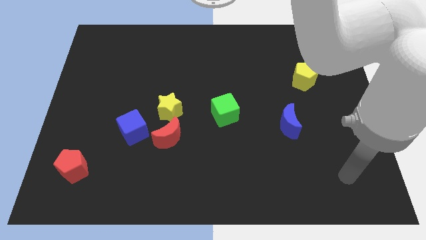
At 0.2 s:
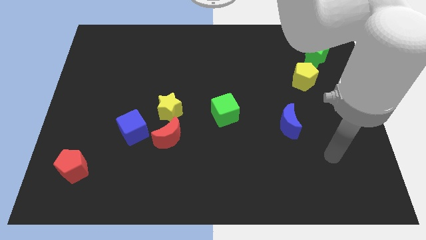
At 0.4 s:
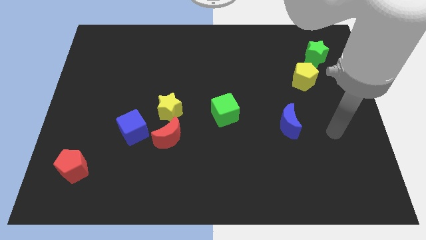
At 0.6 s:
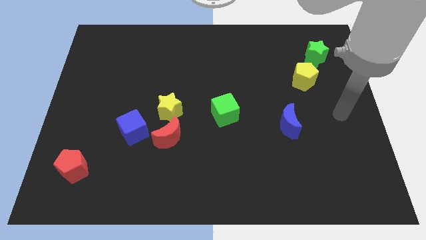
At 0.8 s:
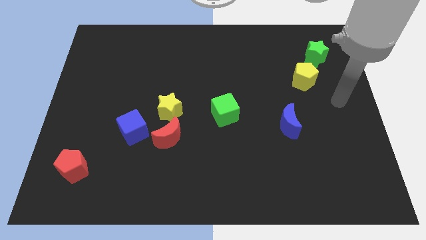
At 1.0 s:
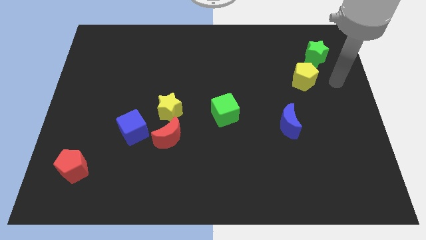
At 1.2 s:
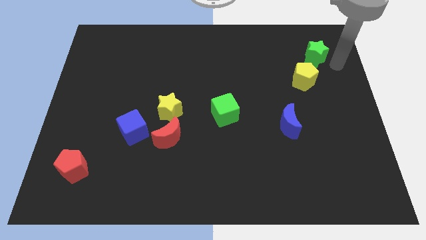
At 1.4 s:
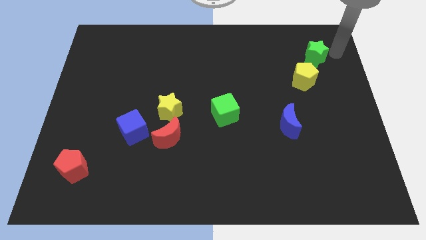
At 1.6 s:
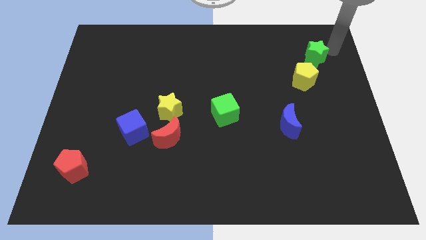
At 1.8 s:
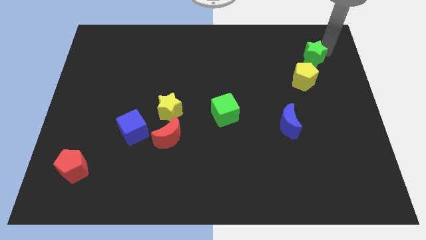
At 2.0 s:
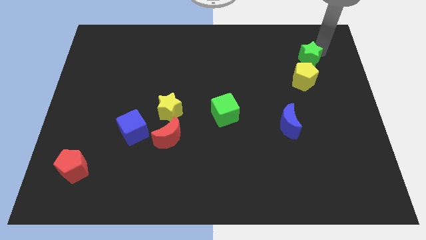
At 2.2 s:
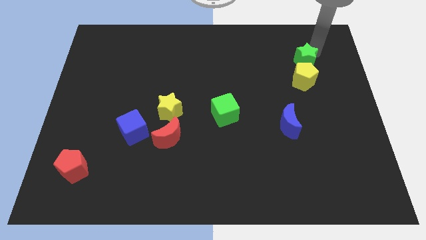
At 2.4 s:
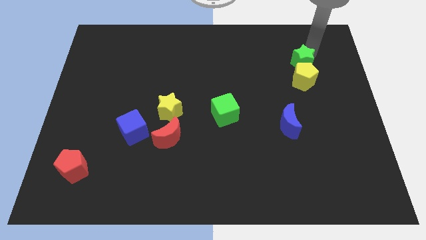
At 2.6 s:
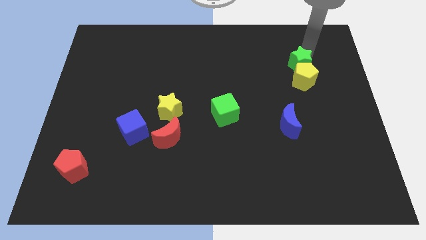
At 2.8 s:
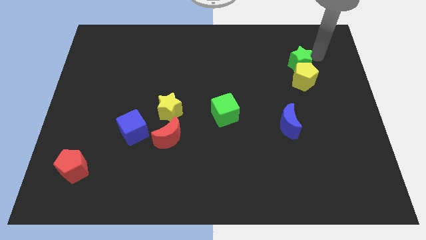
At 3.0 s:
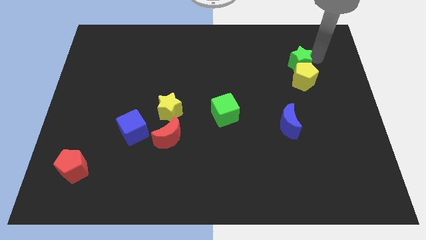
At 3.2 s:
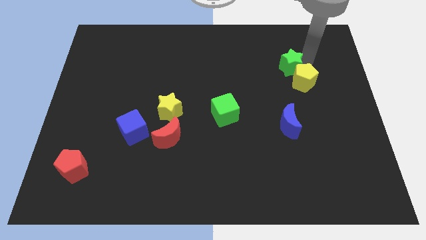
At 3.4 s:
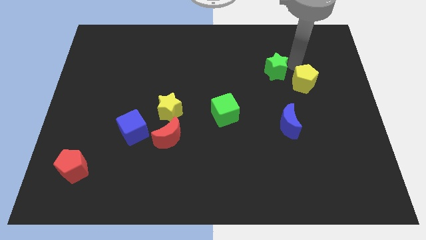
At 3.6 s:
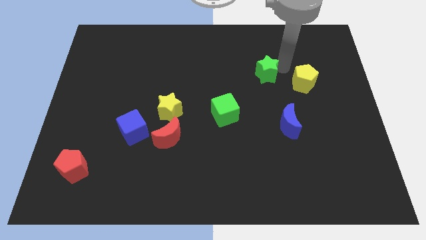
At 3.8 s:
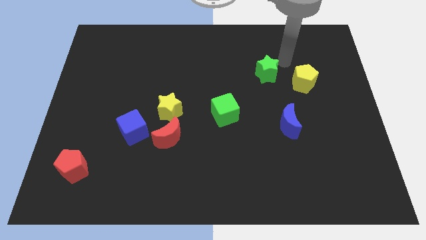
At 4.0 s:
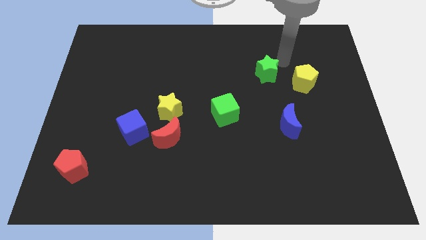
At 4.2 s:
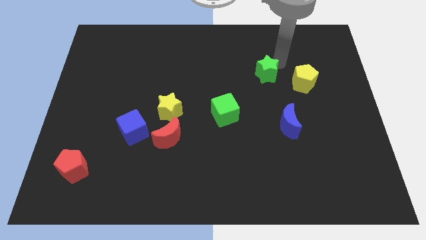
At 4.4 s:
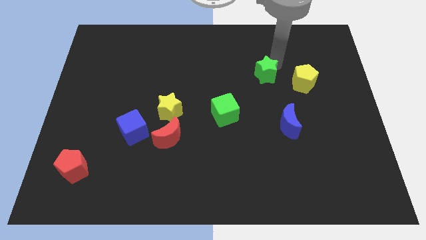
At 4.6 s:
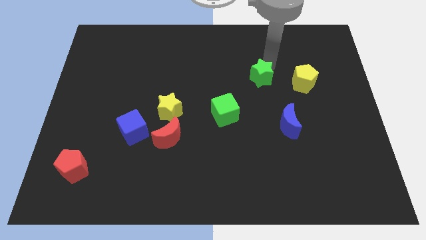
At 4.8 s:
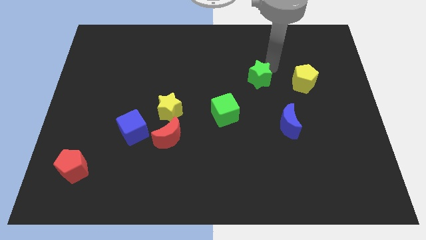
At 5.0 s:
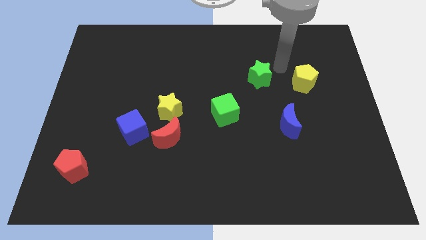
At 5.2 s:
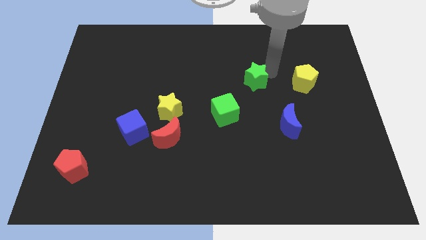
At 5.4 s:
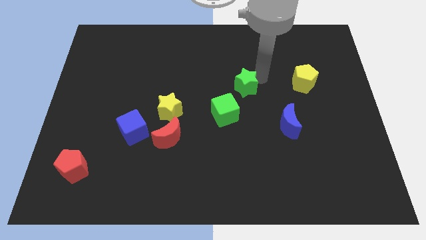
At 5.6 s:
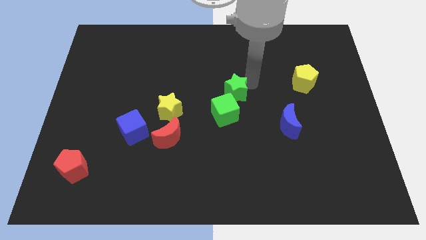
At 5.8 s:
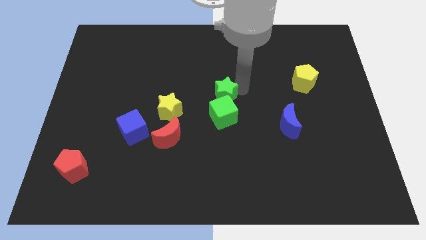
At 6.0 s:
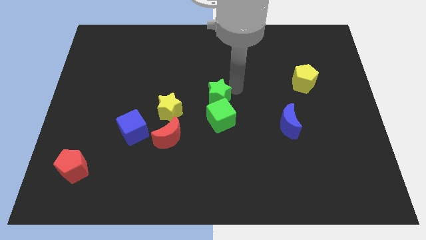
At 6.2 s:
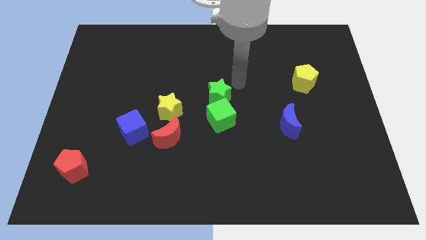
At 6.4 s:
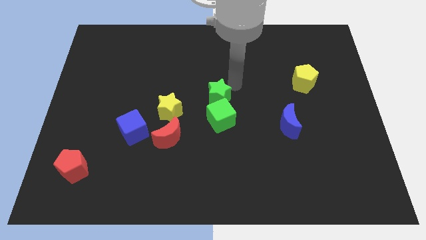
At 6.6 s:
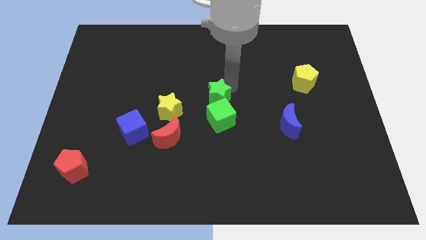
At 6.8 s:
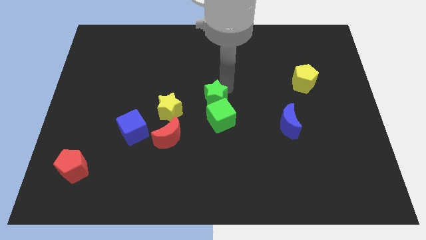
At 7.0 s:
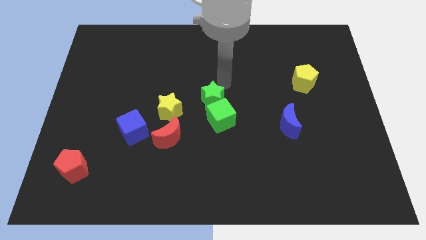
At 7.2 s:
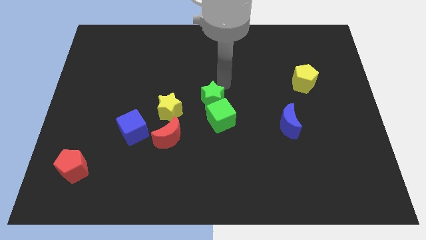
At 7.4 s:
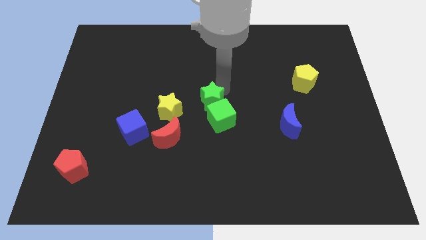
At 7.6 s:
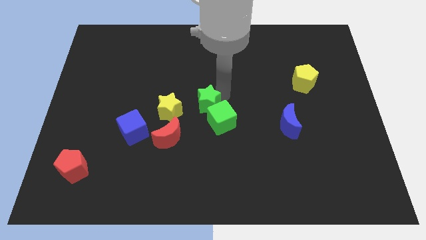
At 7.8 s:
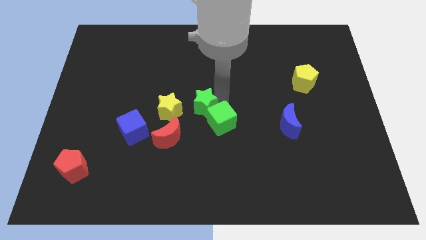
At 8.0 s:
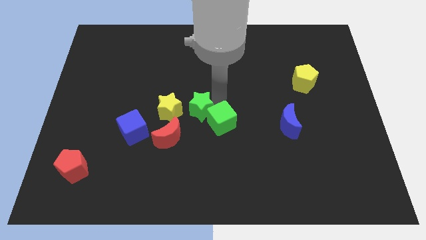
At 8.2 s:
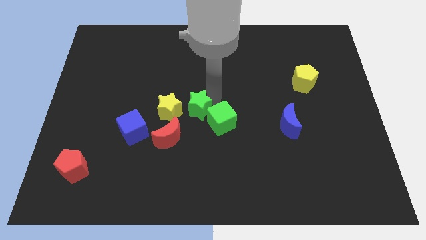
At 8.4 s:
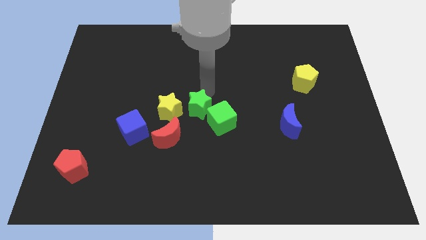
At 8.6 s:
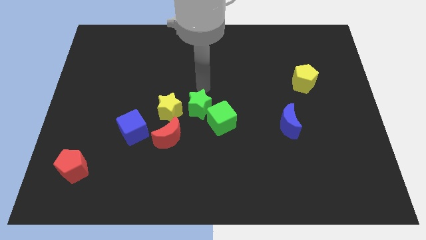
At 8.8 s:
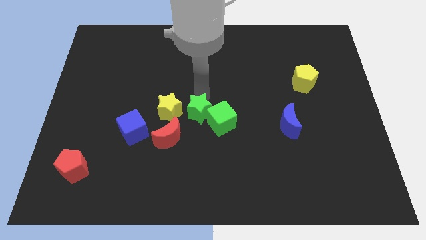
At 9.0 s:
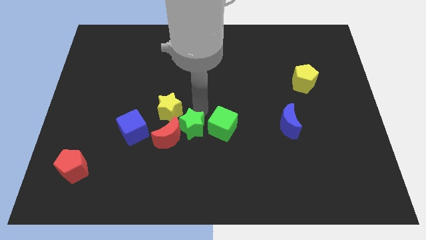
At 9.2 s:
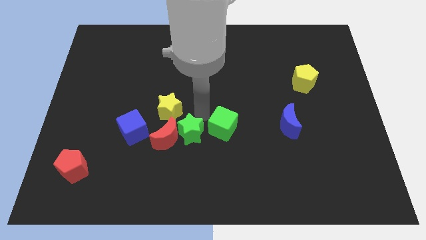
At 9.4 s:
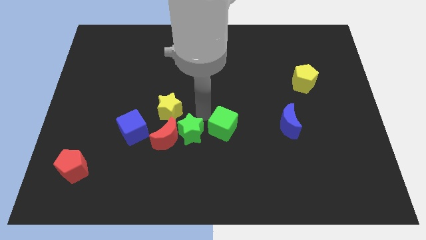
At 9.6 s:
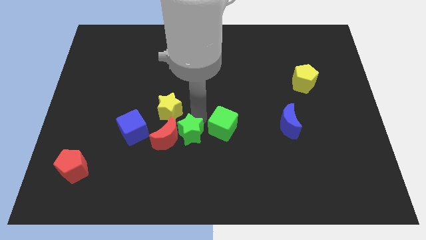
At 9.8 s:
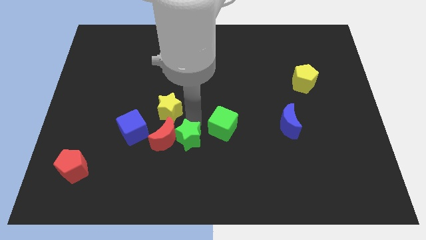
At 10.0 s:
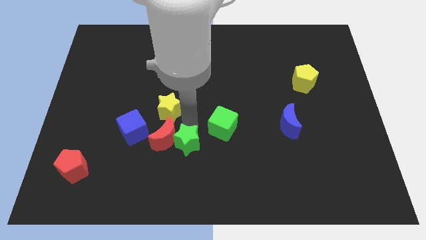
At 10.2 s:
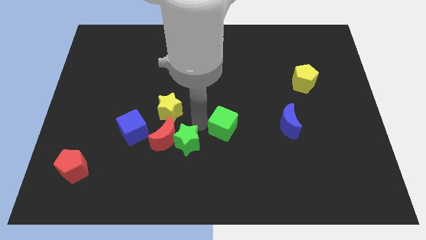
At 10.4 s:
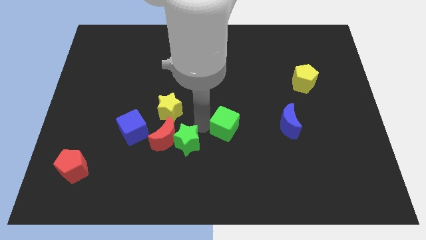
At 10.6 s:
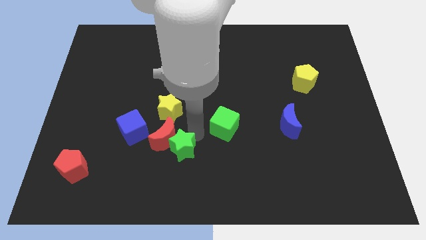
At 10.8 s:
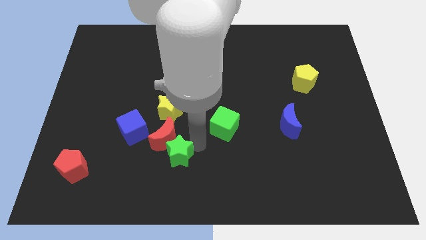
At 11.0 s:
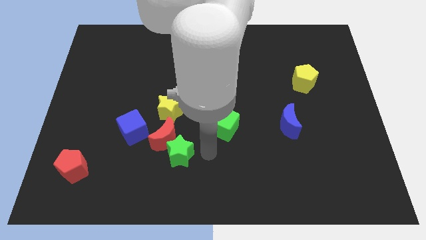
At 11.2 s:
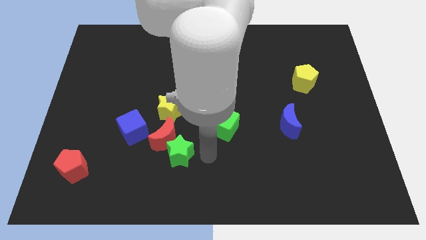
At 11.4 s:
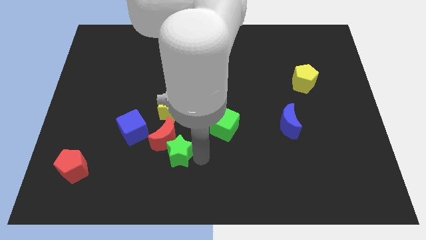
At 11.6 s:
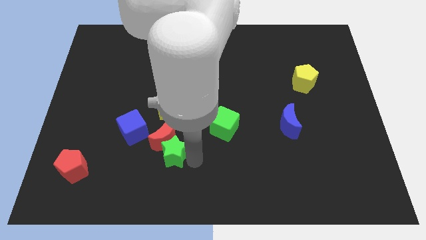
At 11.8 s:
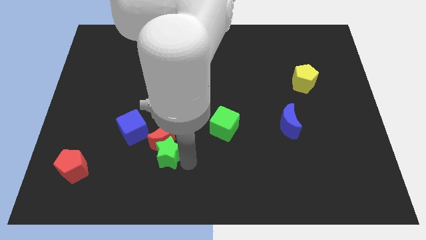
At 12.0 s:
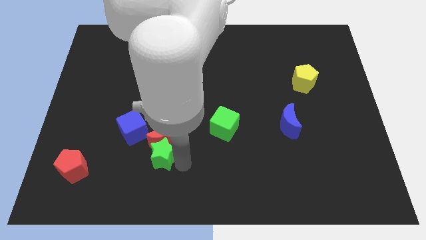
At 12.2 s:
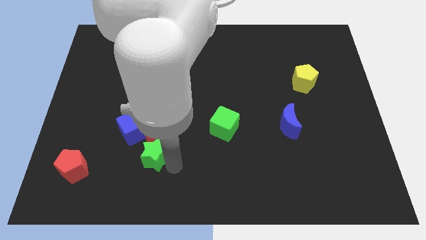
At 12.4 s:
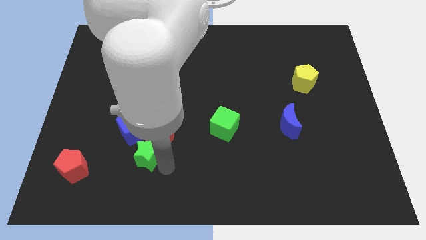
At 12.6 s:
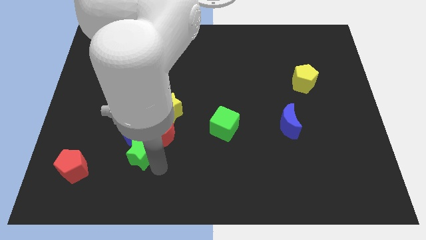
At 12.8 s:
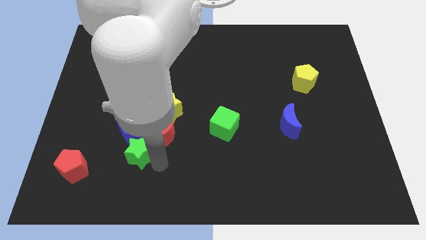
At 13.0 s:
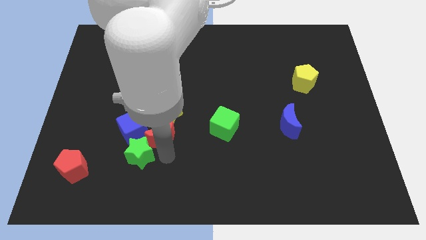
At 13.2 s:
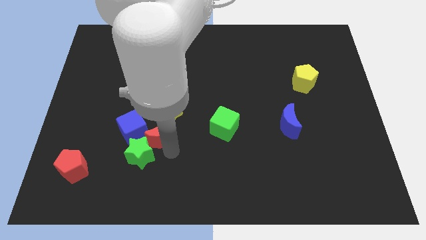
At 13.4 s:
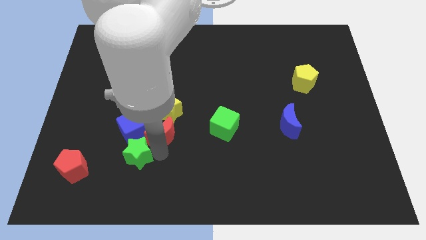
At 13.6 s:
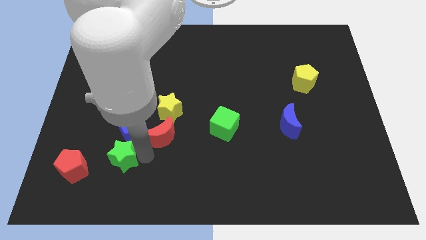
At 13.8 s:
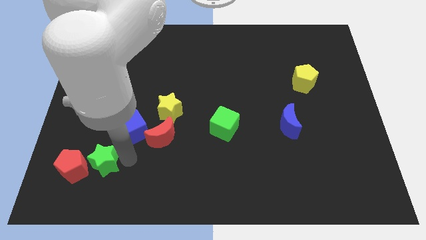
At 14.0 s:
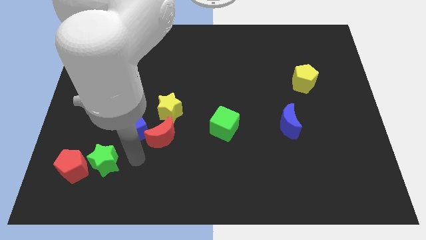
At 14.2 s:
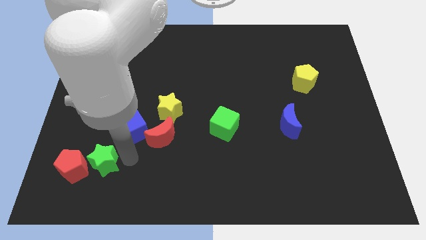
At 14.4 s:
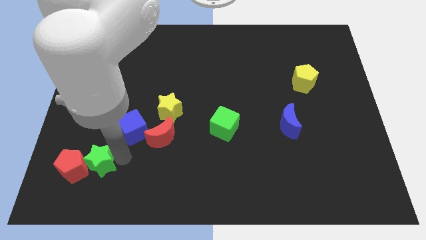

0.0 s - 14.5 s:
slide the green star next to the red pentagon
